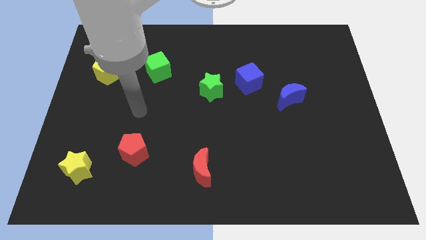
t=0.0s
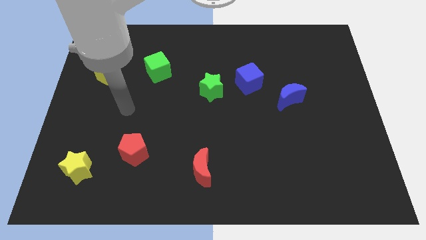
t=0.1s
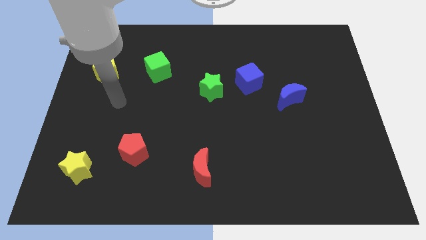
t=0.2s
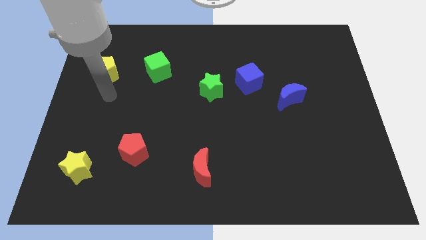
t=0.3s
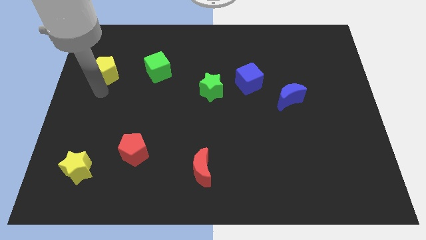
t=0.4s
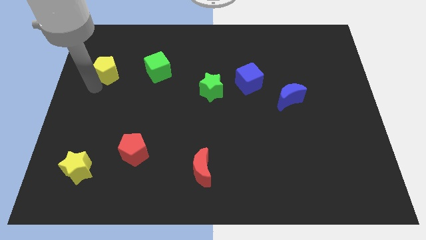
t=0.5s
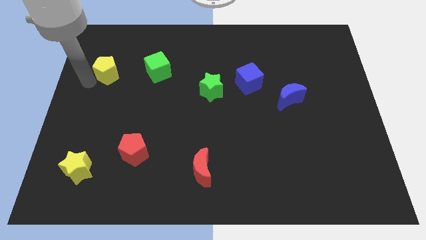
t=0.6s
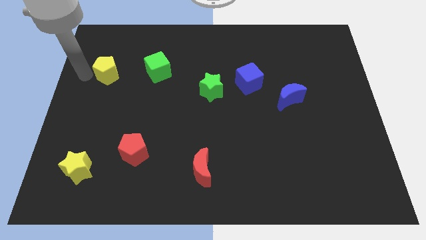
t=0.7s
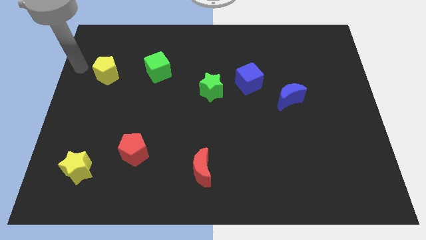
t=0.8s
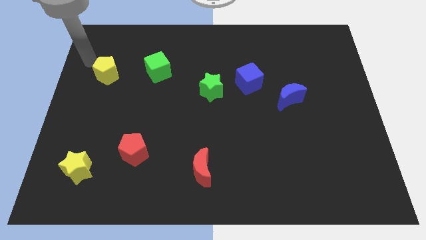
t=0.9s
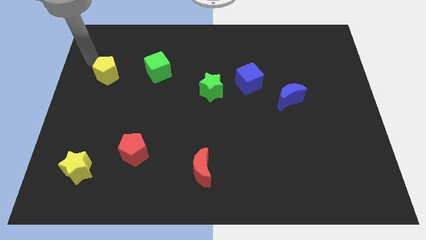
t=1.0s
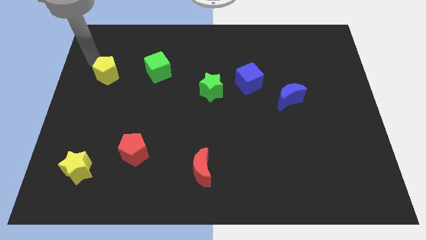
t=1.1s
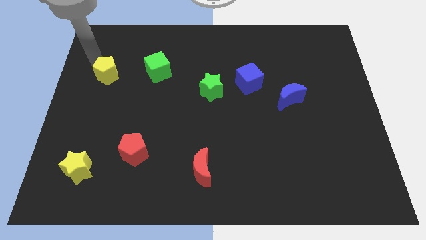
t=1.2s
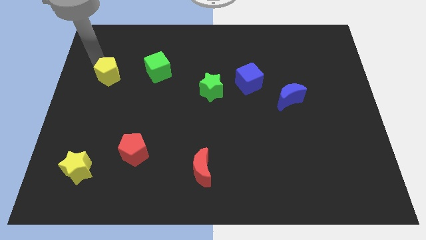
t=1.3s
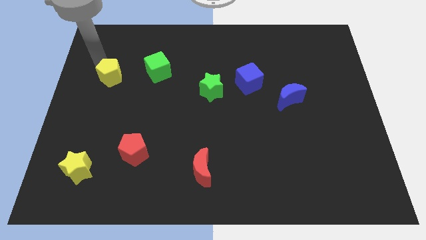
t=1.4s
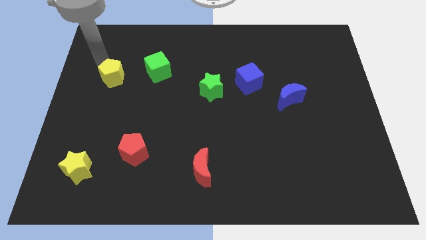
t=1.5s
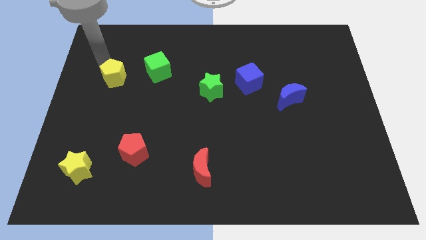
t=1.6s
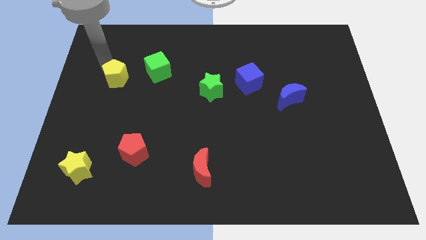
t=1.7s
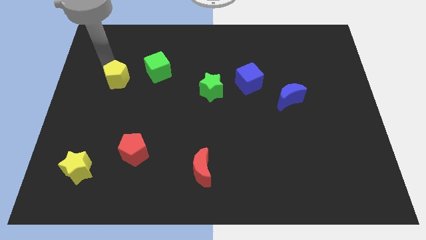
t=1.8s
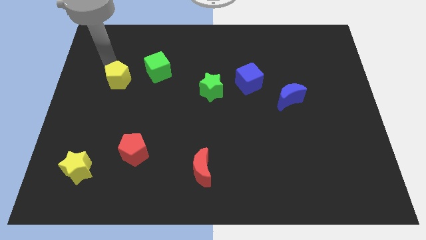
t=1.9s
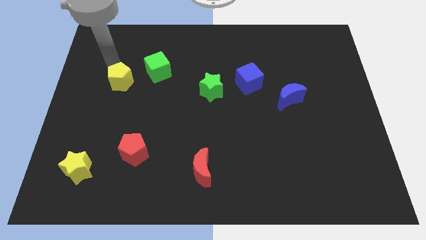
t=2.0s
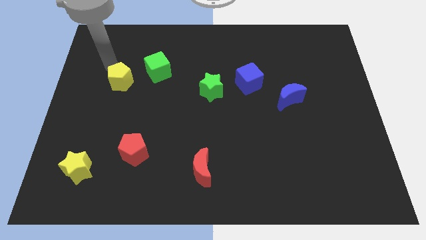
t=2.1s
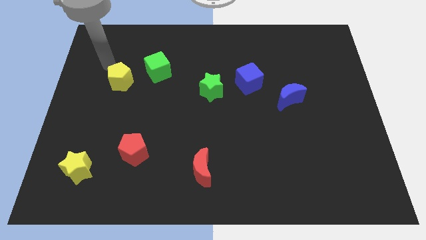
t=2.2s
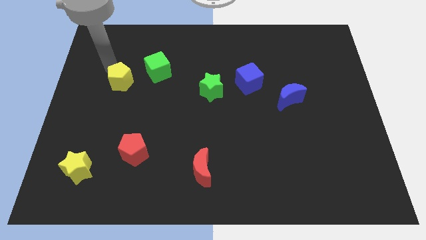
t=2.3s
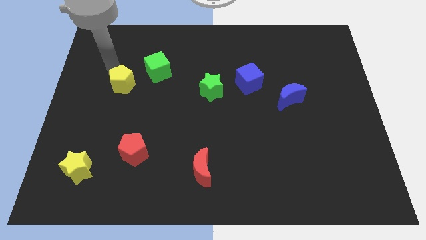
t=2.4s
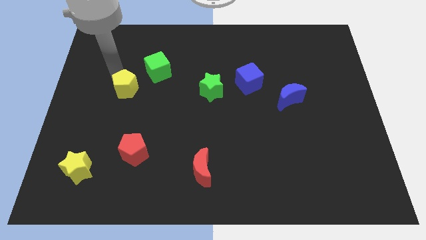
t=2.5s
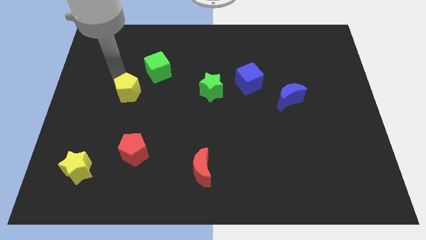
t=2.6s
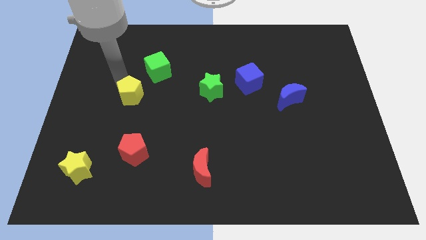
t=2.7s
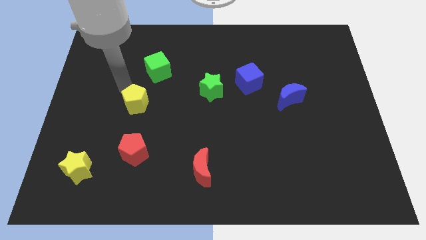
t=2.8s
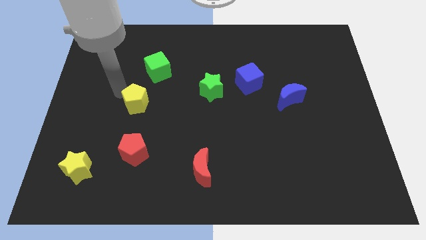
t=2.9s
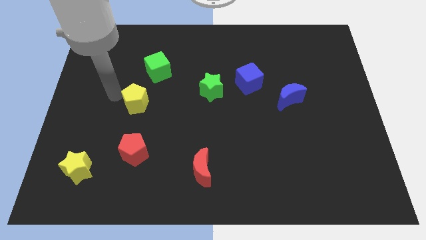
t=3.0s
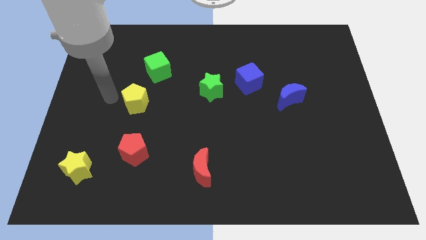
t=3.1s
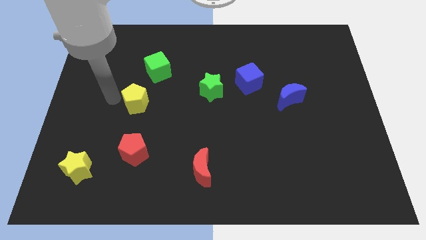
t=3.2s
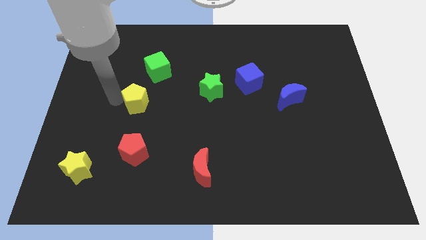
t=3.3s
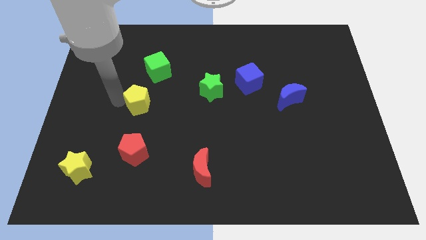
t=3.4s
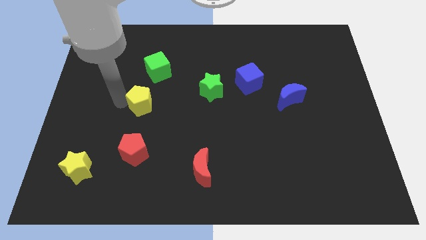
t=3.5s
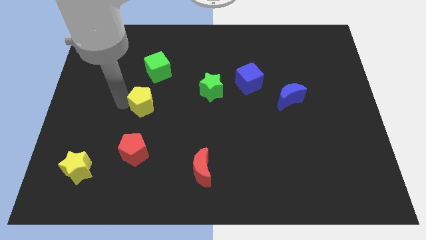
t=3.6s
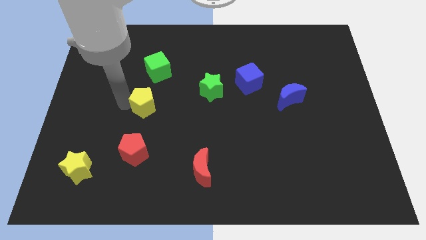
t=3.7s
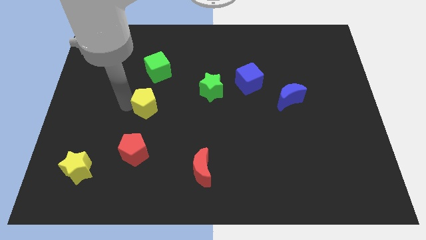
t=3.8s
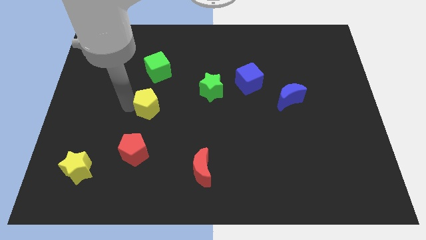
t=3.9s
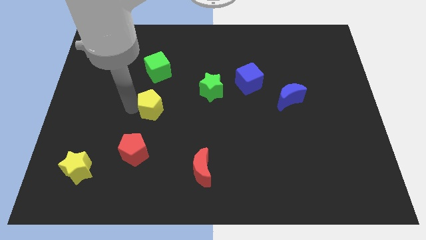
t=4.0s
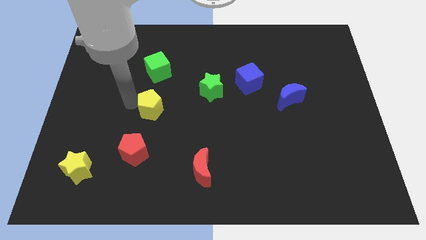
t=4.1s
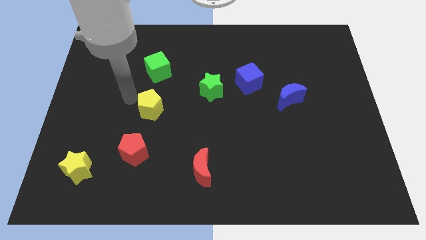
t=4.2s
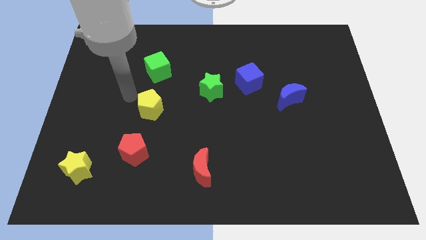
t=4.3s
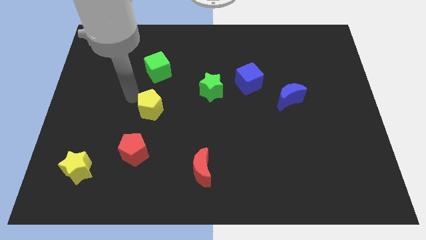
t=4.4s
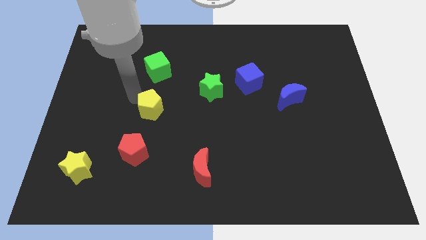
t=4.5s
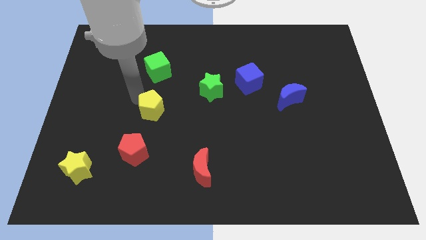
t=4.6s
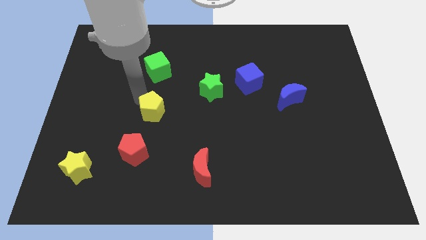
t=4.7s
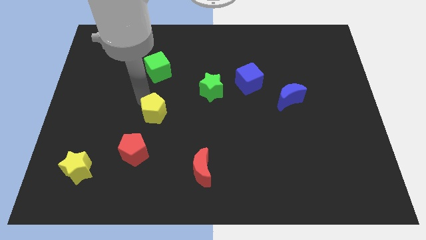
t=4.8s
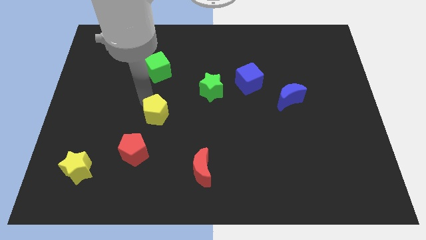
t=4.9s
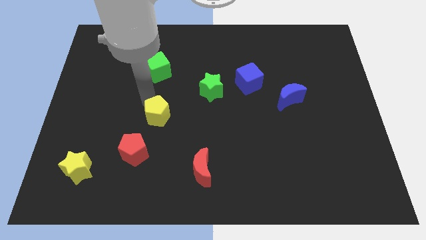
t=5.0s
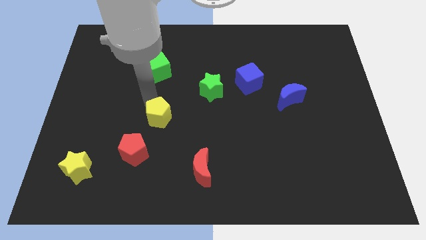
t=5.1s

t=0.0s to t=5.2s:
push the yellow pentagon downwards and to the right

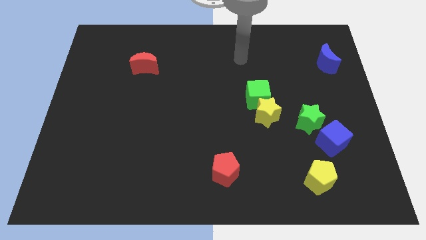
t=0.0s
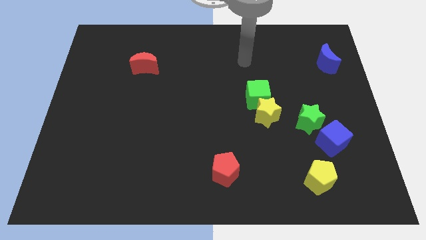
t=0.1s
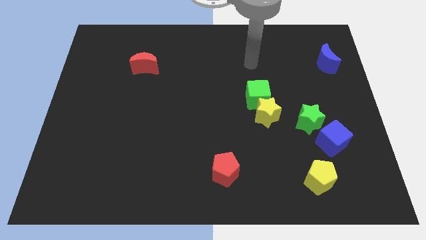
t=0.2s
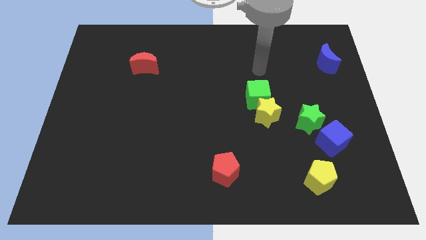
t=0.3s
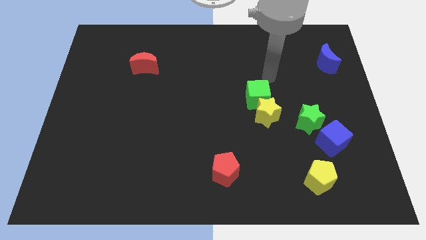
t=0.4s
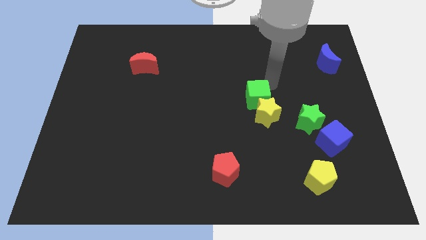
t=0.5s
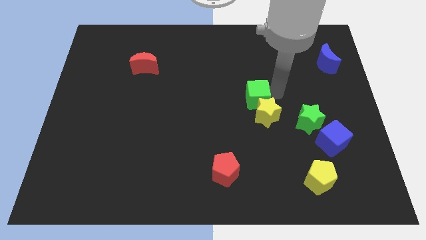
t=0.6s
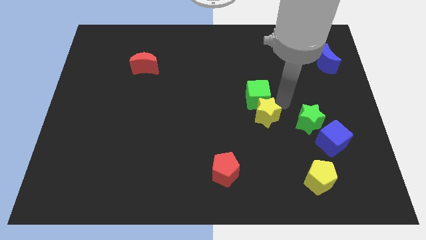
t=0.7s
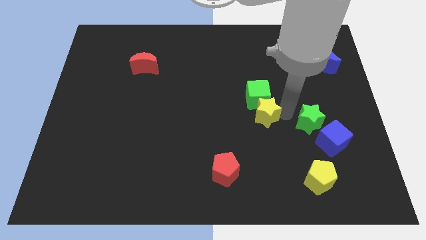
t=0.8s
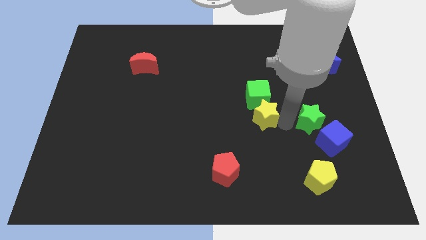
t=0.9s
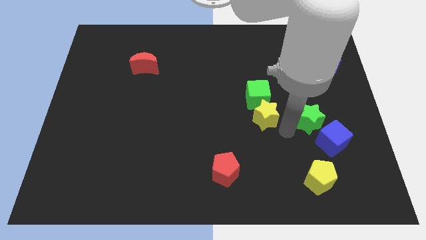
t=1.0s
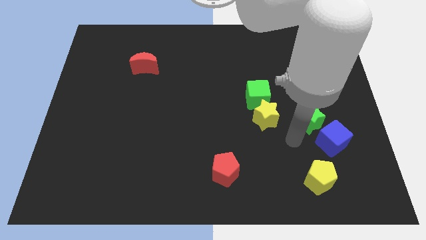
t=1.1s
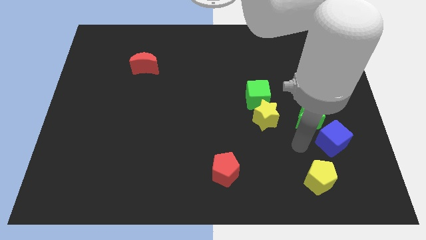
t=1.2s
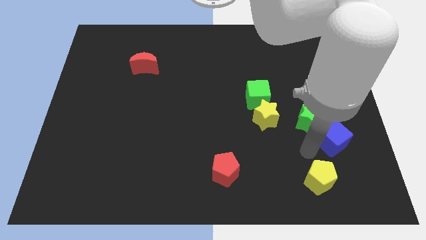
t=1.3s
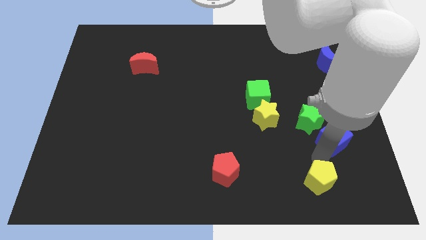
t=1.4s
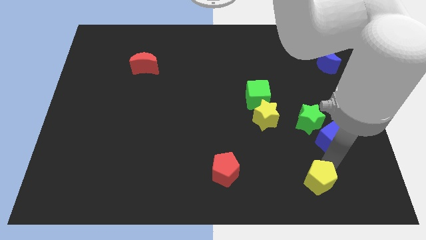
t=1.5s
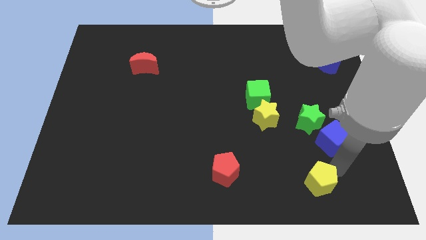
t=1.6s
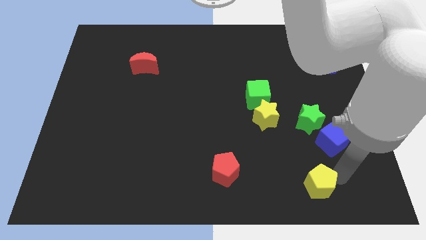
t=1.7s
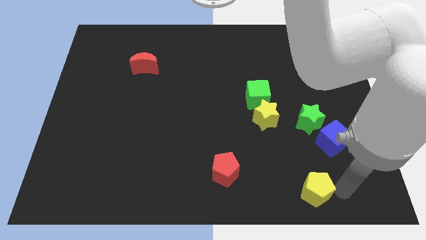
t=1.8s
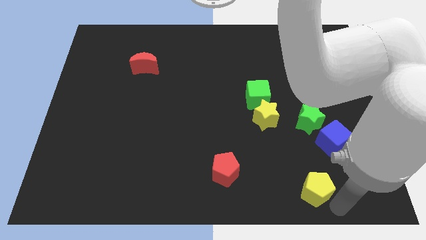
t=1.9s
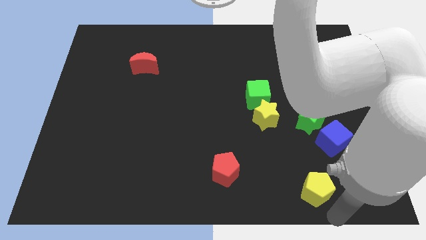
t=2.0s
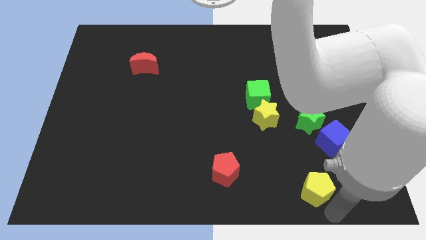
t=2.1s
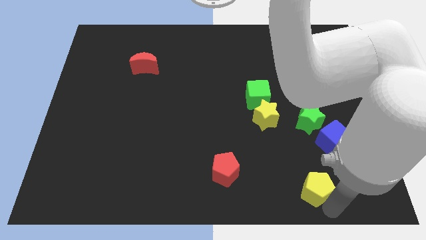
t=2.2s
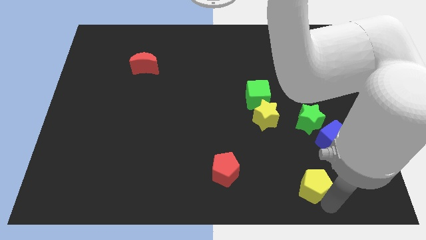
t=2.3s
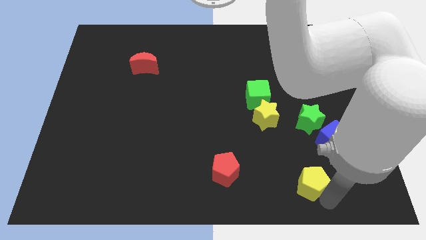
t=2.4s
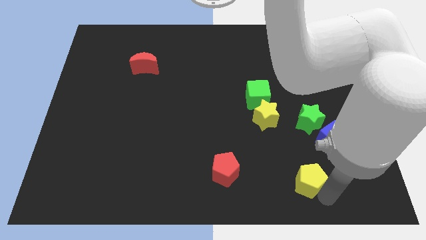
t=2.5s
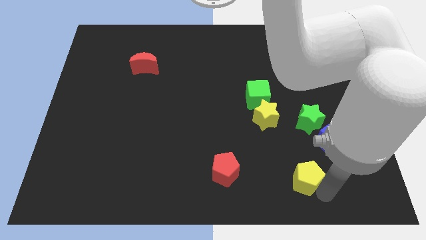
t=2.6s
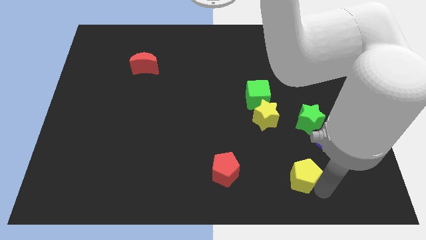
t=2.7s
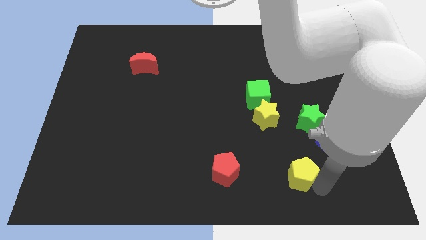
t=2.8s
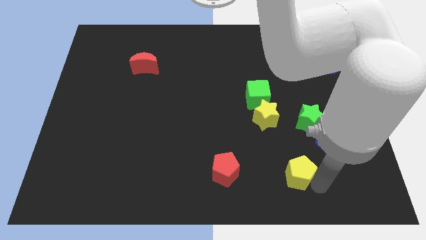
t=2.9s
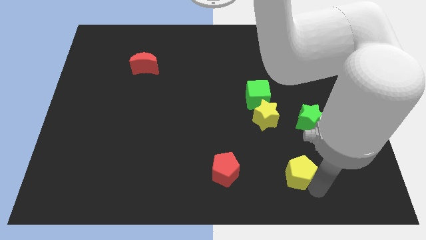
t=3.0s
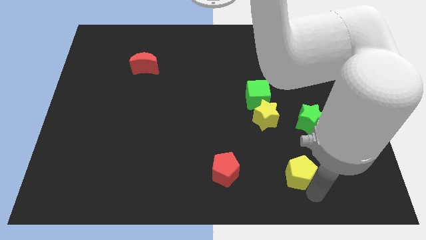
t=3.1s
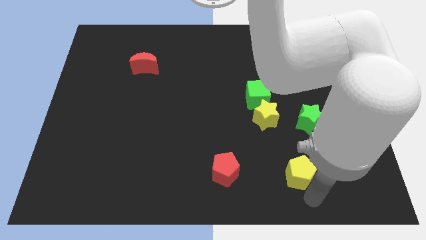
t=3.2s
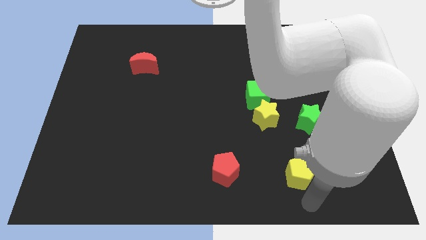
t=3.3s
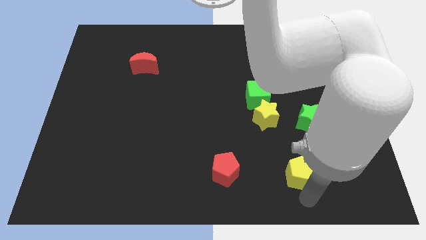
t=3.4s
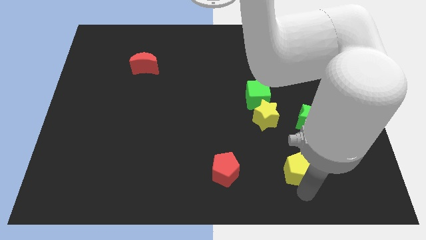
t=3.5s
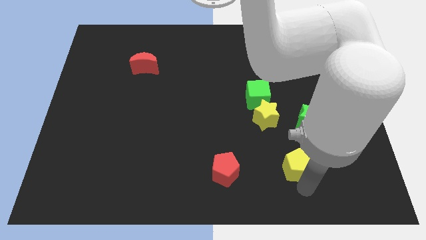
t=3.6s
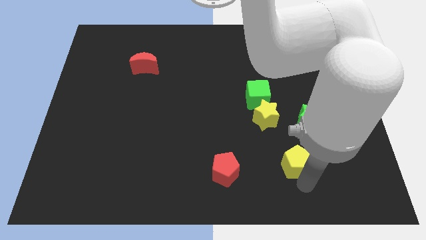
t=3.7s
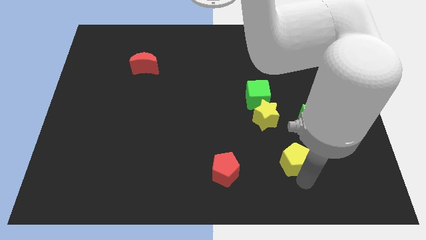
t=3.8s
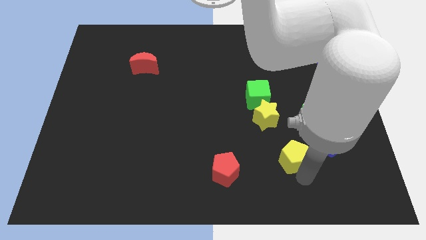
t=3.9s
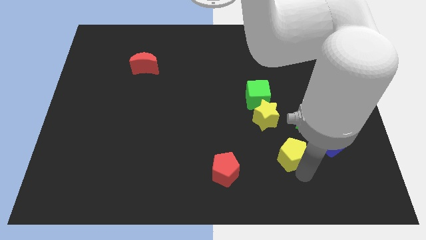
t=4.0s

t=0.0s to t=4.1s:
push the yellow pentagon slightly up and then left
